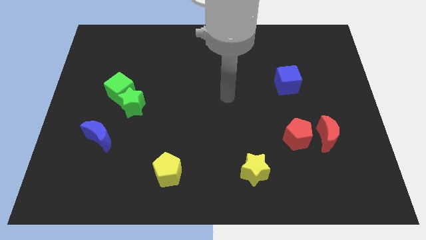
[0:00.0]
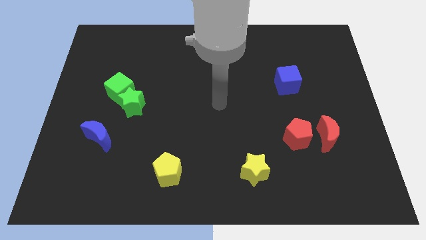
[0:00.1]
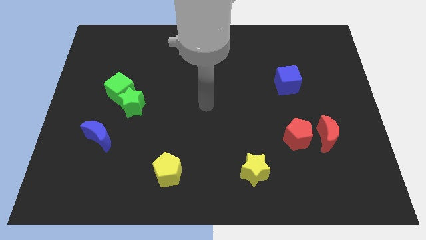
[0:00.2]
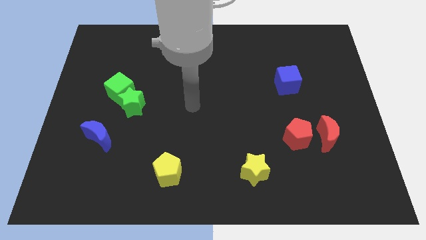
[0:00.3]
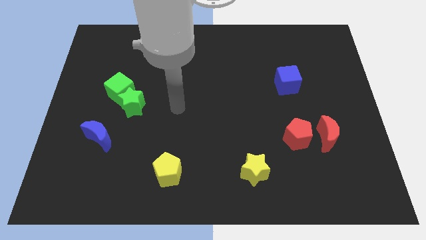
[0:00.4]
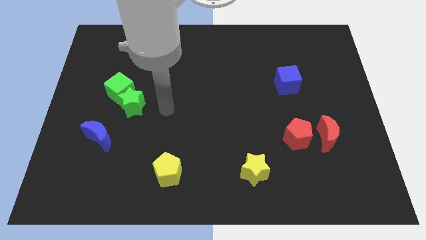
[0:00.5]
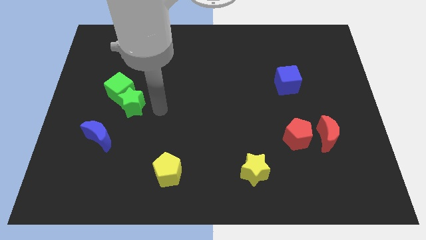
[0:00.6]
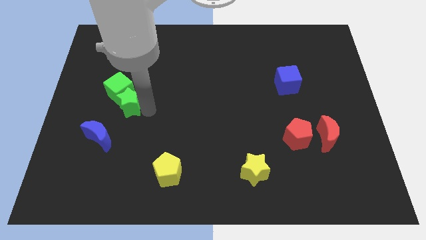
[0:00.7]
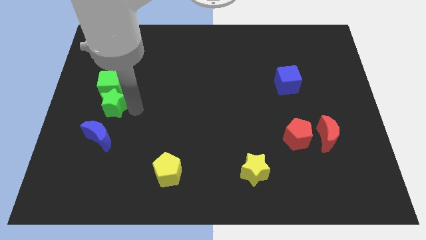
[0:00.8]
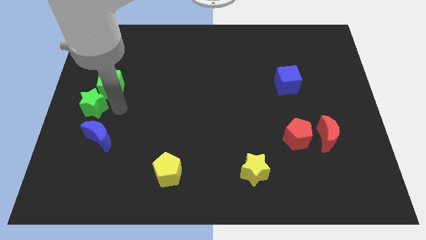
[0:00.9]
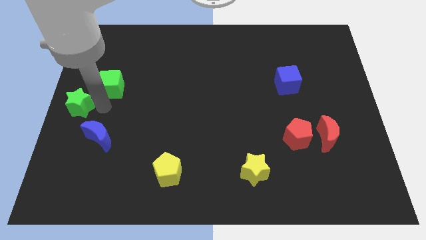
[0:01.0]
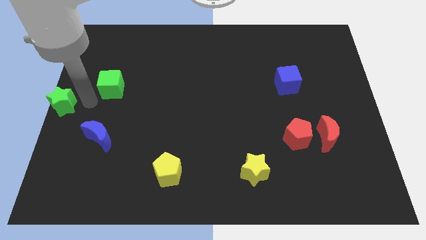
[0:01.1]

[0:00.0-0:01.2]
move the green cube away from the green star

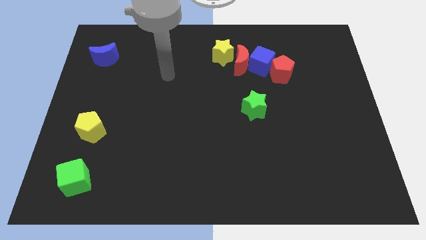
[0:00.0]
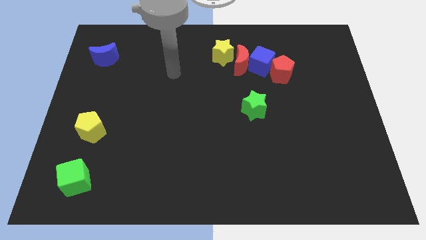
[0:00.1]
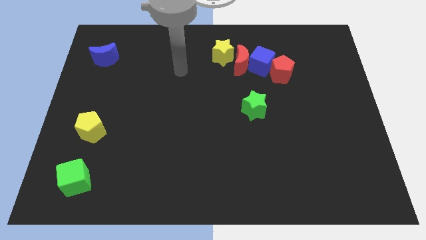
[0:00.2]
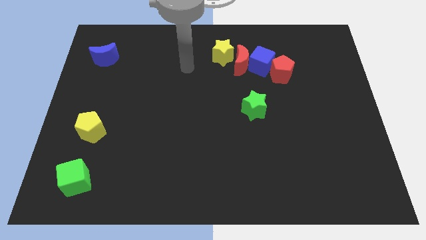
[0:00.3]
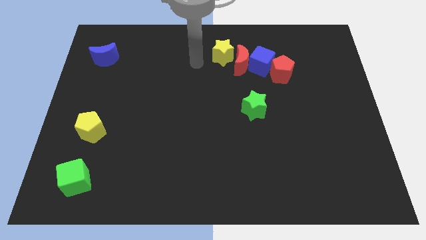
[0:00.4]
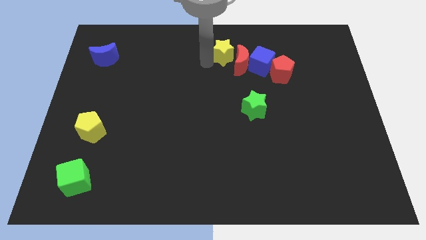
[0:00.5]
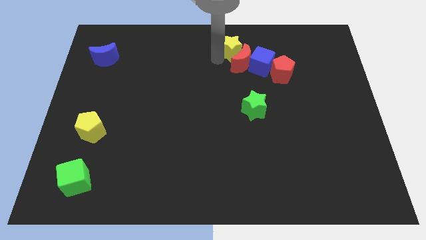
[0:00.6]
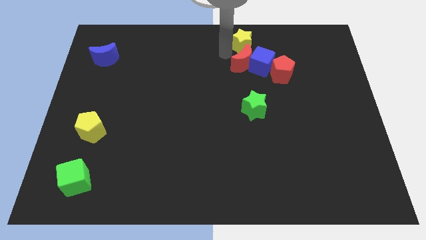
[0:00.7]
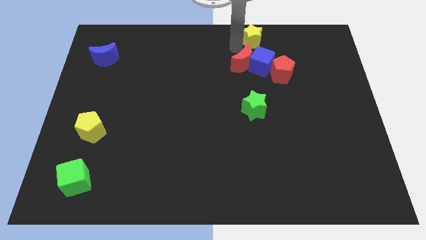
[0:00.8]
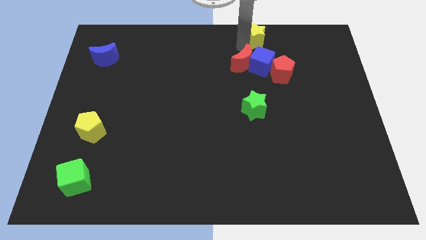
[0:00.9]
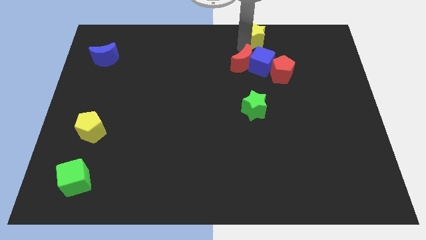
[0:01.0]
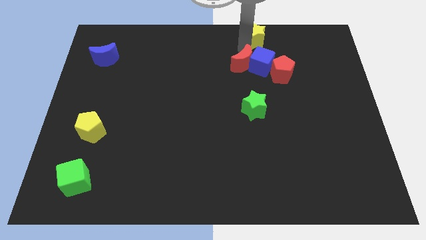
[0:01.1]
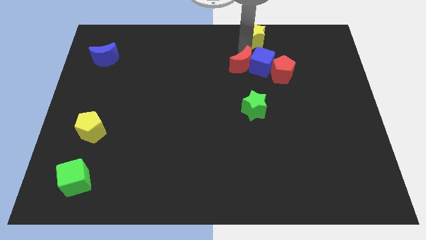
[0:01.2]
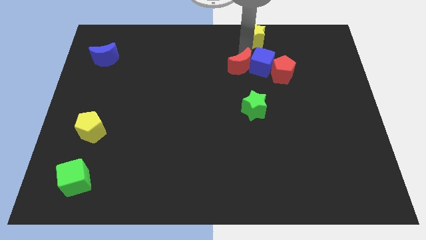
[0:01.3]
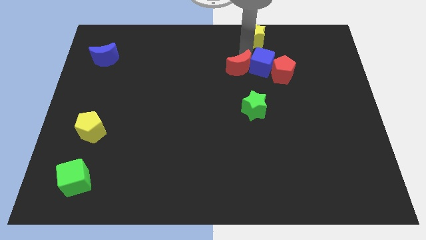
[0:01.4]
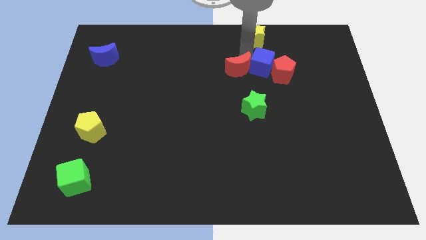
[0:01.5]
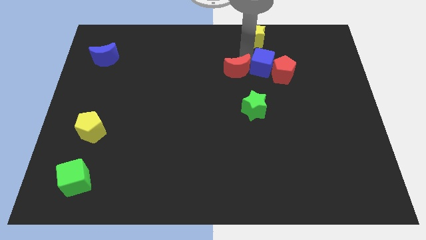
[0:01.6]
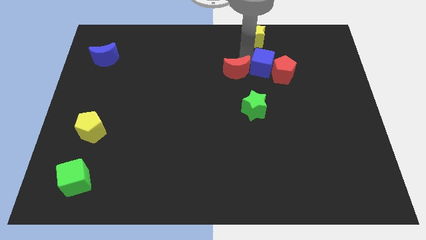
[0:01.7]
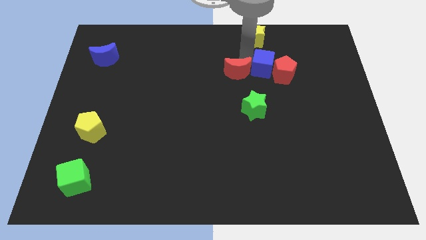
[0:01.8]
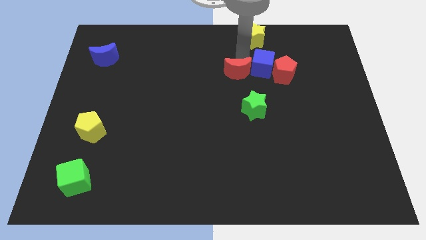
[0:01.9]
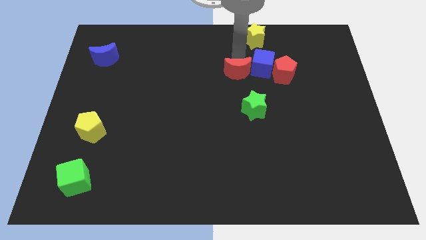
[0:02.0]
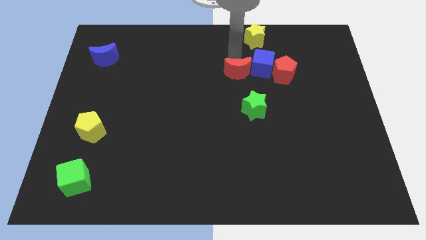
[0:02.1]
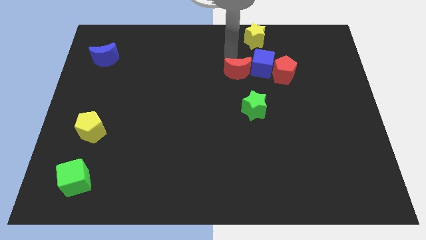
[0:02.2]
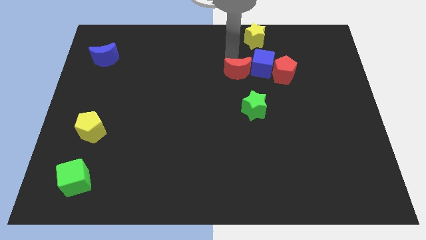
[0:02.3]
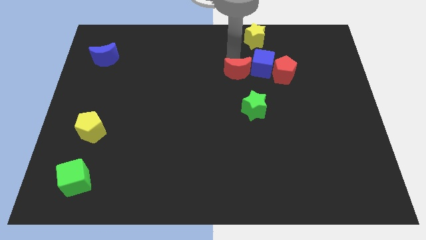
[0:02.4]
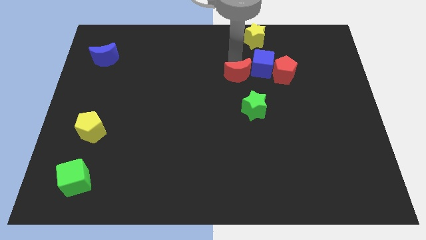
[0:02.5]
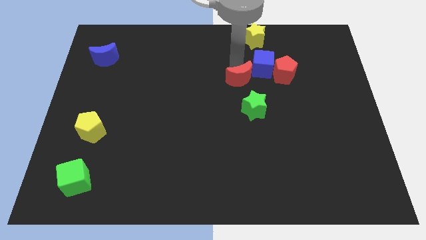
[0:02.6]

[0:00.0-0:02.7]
separate the red moon from the blue cube and yellow star

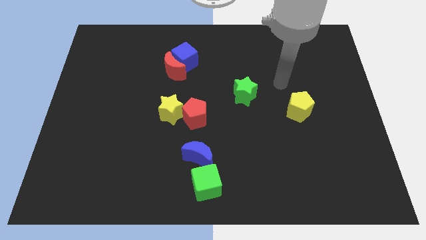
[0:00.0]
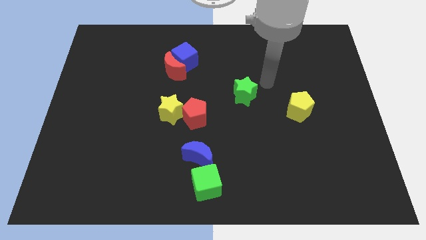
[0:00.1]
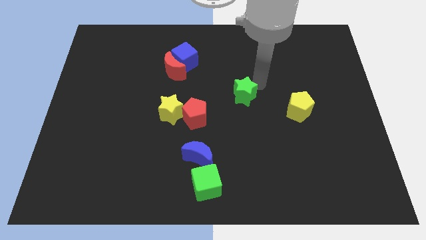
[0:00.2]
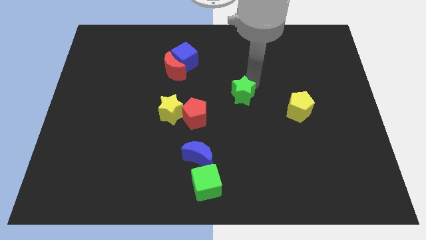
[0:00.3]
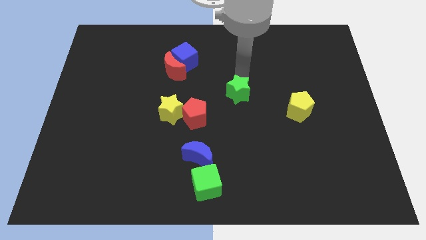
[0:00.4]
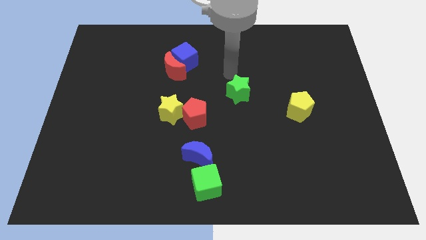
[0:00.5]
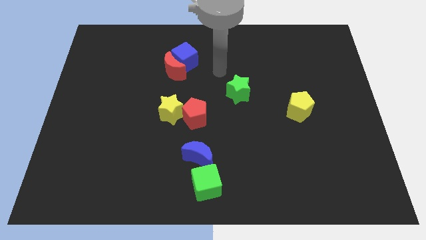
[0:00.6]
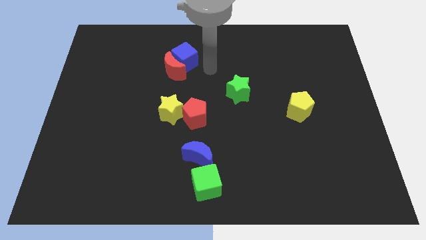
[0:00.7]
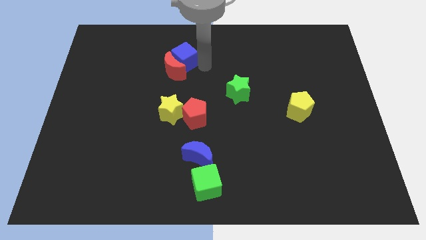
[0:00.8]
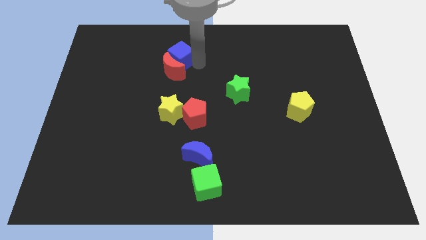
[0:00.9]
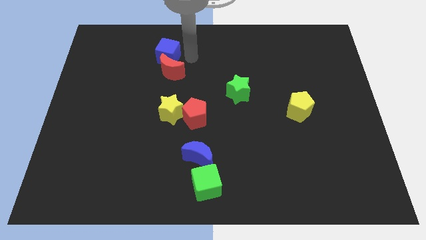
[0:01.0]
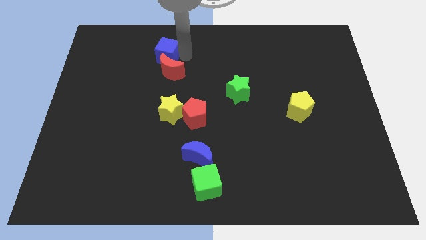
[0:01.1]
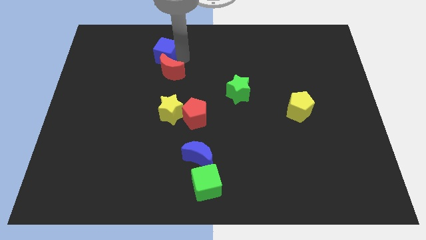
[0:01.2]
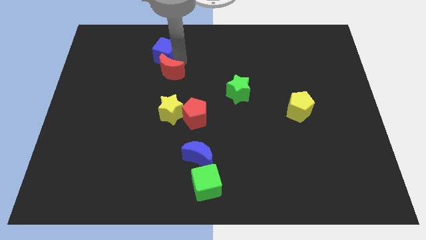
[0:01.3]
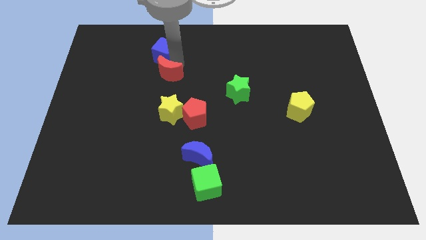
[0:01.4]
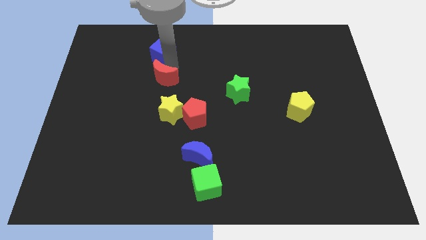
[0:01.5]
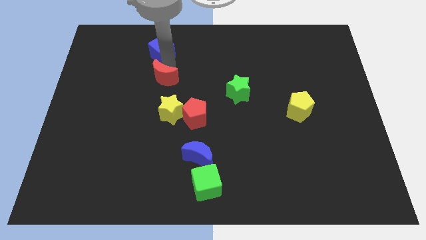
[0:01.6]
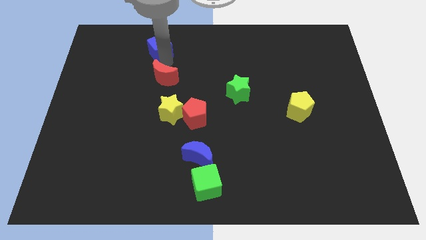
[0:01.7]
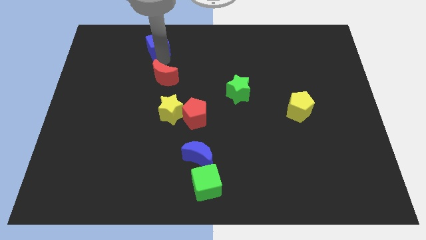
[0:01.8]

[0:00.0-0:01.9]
separate the red moon from the blue cube

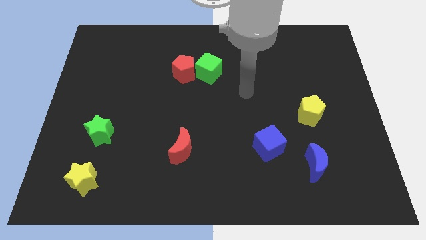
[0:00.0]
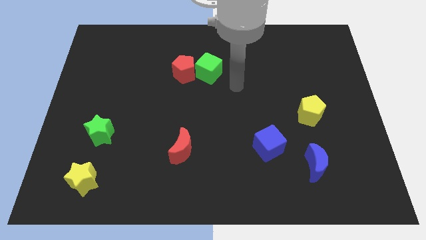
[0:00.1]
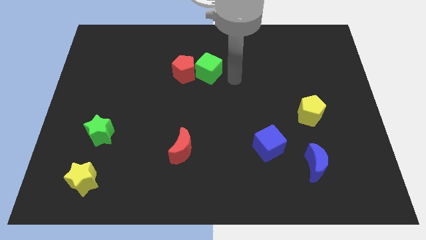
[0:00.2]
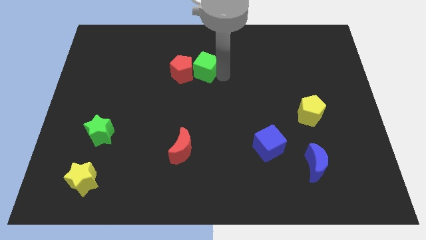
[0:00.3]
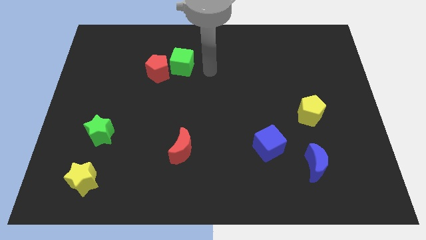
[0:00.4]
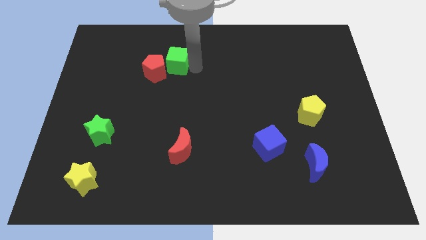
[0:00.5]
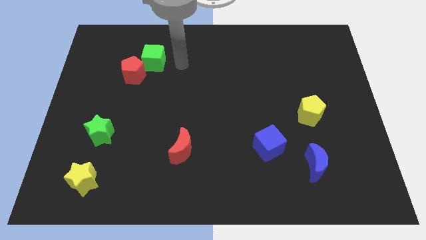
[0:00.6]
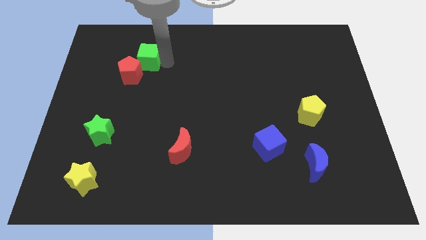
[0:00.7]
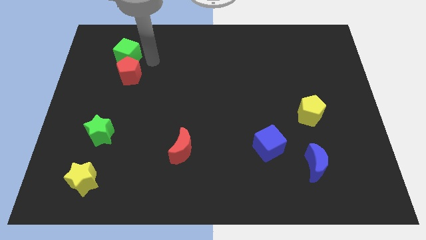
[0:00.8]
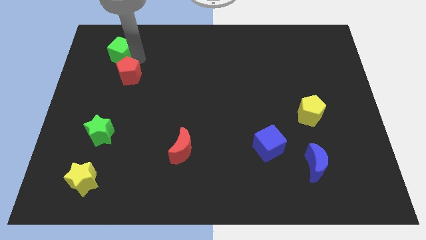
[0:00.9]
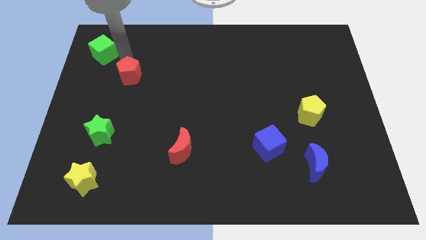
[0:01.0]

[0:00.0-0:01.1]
separate the red pentagon from the green cube

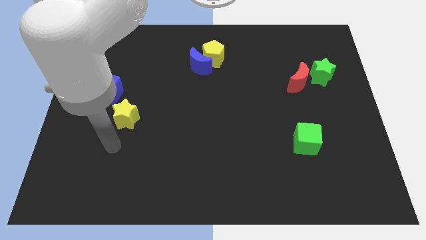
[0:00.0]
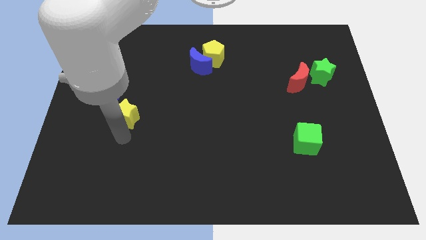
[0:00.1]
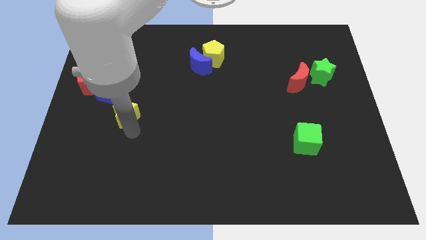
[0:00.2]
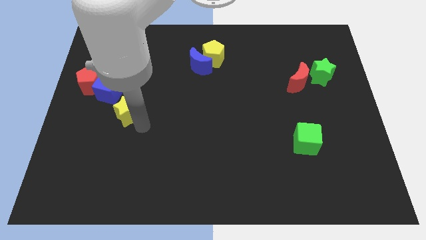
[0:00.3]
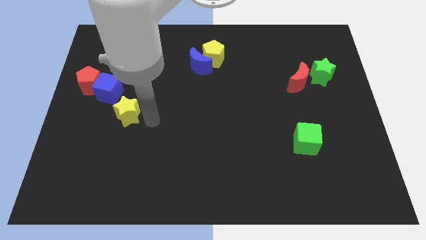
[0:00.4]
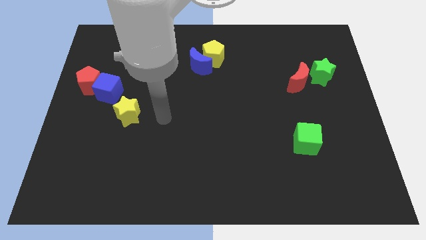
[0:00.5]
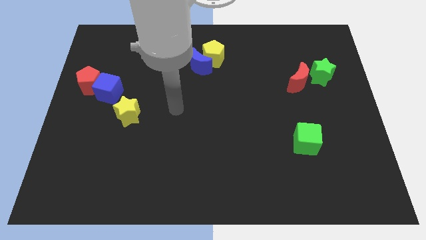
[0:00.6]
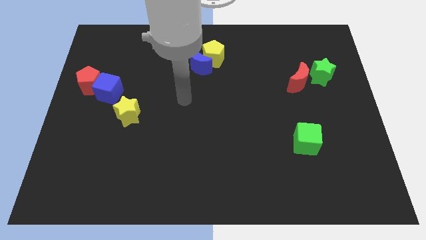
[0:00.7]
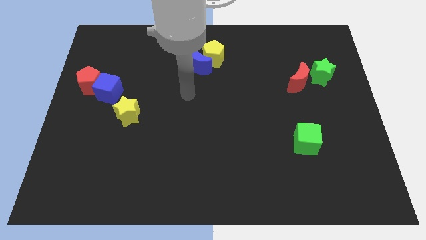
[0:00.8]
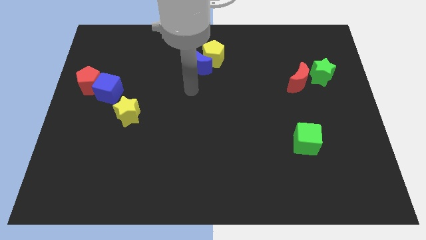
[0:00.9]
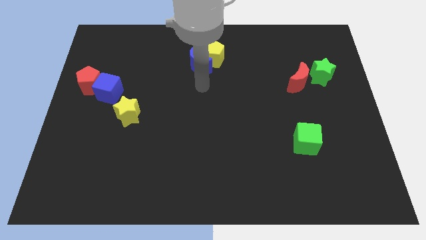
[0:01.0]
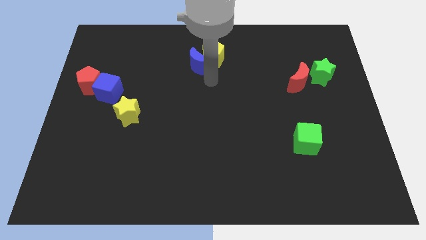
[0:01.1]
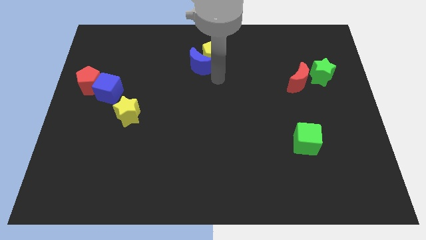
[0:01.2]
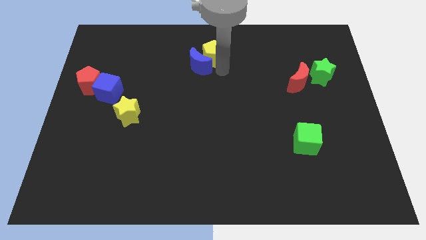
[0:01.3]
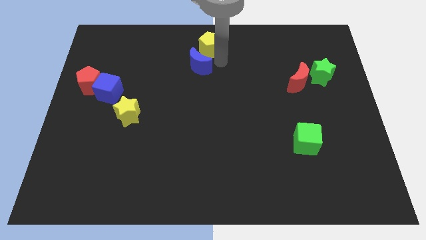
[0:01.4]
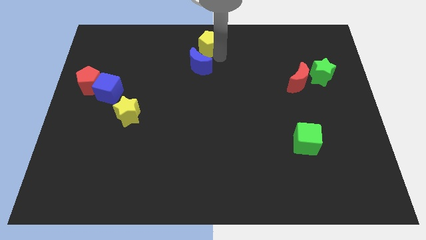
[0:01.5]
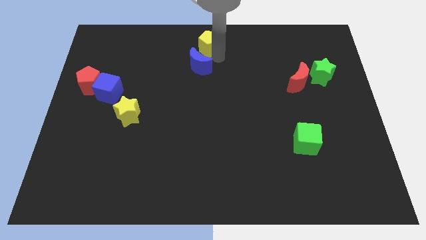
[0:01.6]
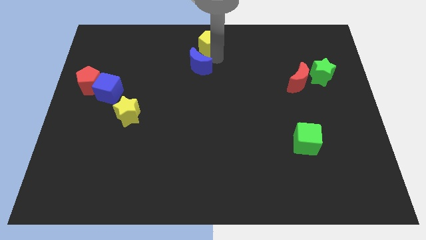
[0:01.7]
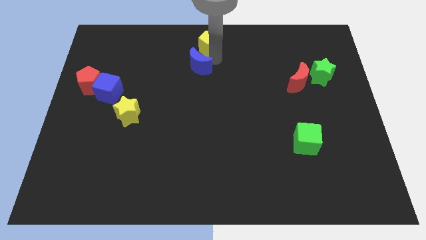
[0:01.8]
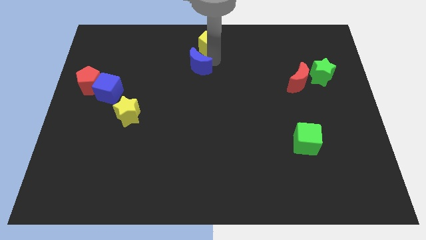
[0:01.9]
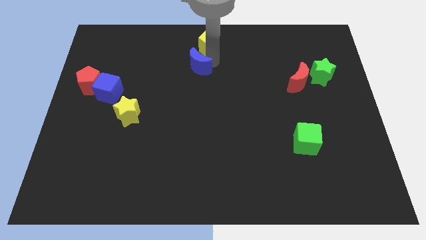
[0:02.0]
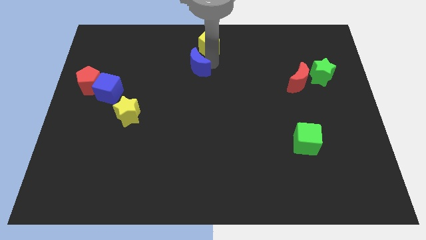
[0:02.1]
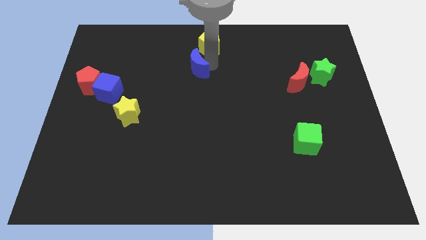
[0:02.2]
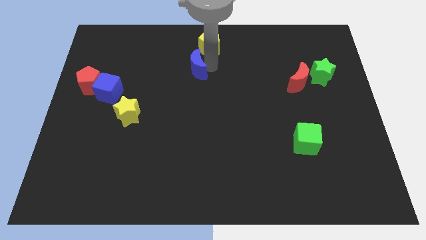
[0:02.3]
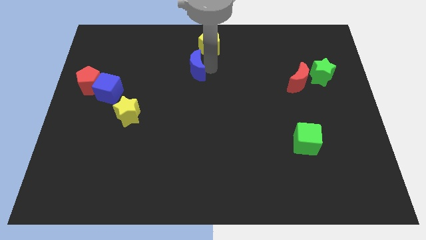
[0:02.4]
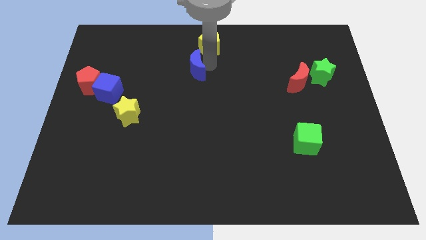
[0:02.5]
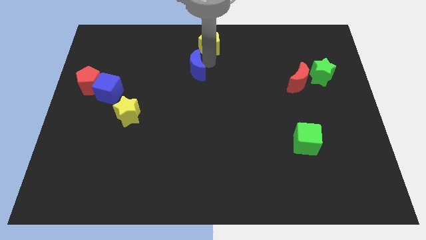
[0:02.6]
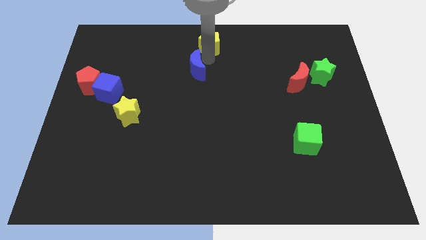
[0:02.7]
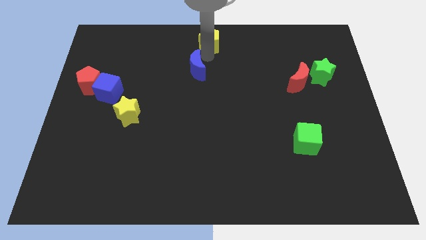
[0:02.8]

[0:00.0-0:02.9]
separate the blue moon from the yellow pentagon
